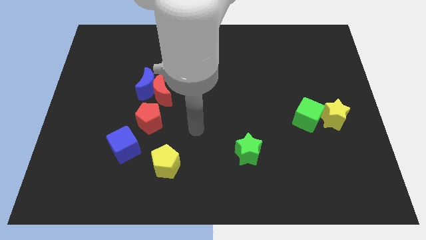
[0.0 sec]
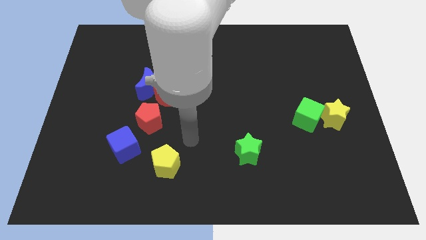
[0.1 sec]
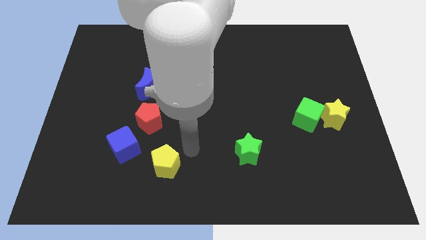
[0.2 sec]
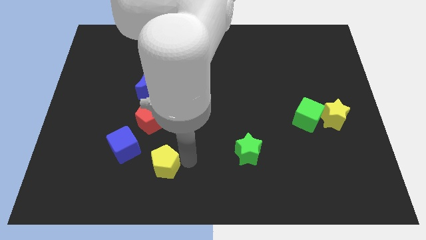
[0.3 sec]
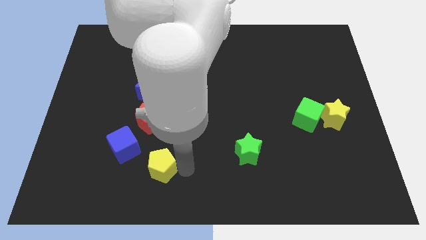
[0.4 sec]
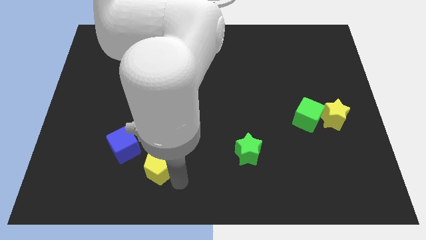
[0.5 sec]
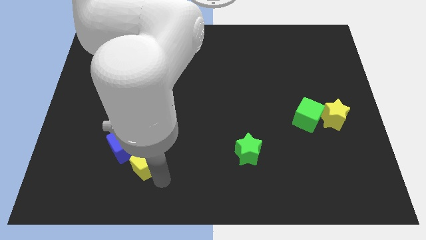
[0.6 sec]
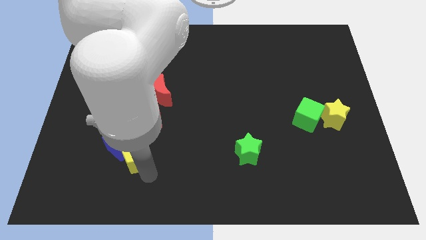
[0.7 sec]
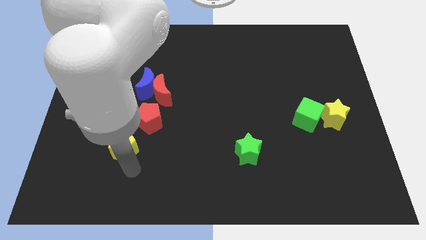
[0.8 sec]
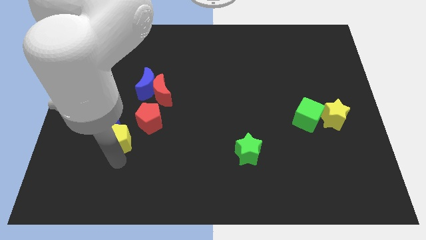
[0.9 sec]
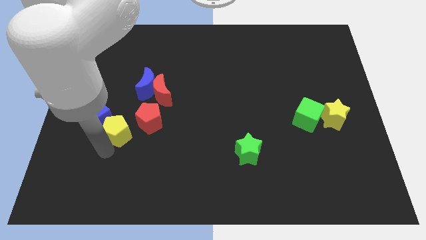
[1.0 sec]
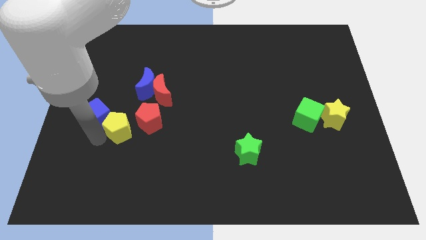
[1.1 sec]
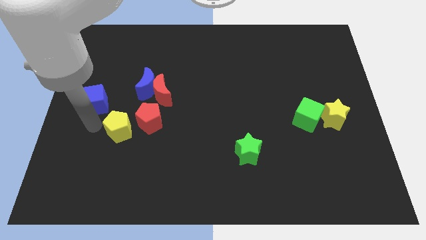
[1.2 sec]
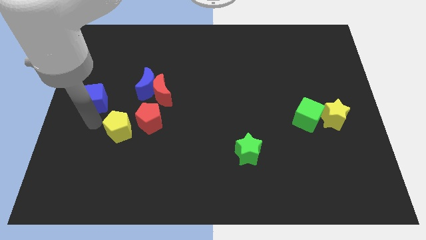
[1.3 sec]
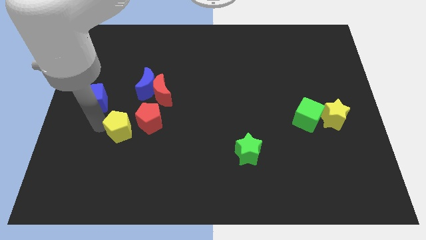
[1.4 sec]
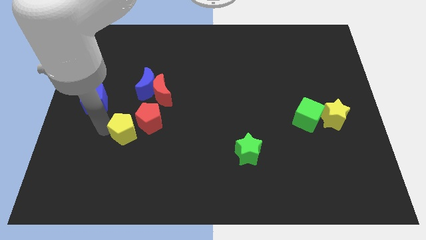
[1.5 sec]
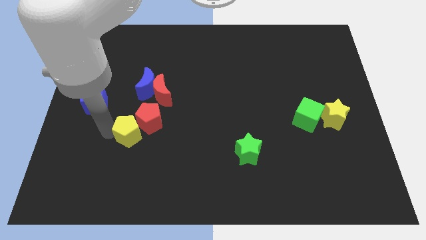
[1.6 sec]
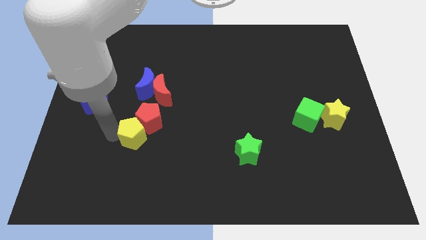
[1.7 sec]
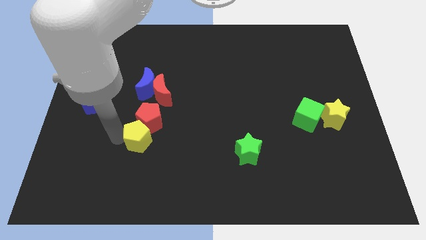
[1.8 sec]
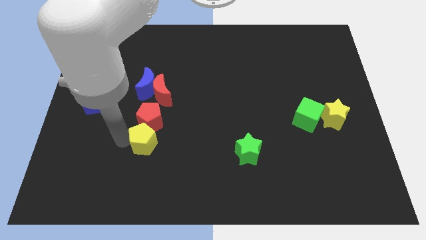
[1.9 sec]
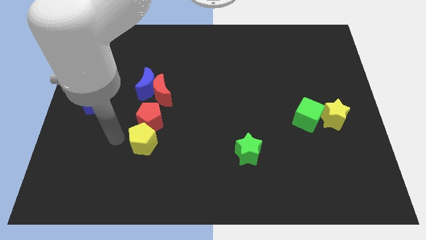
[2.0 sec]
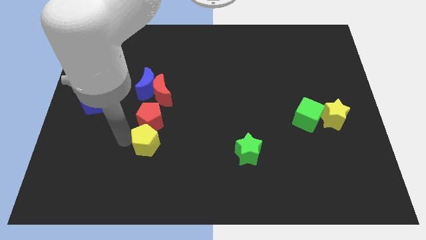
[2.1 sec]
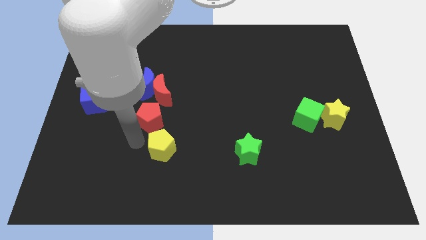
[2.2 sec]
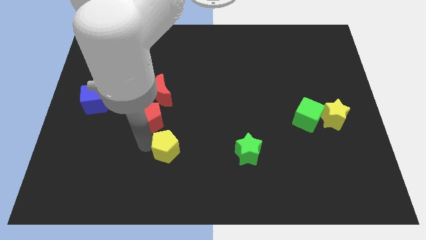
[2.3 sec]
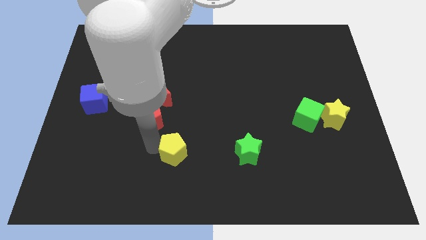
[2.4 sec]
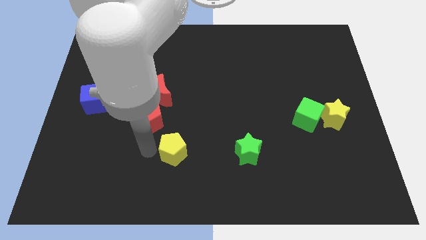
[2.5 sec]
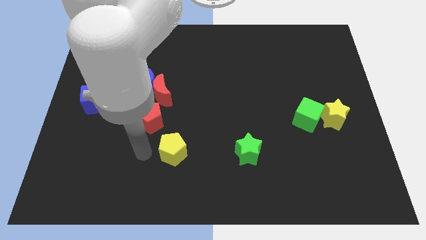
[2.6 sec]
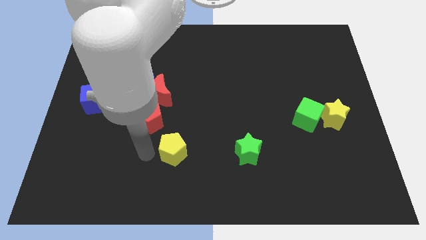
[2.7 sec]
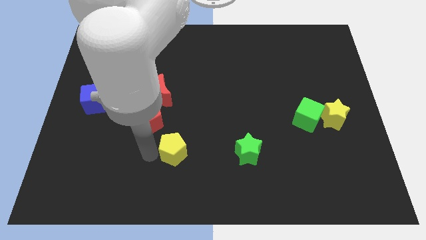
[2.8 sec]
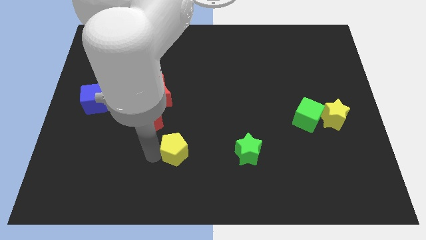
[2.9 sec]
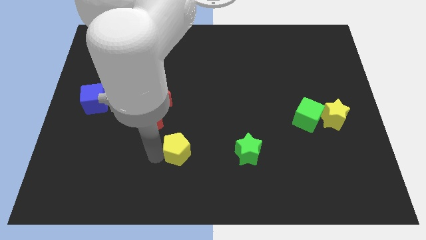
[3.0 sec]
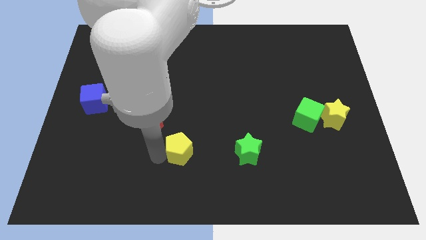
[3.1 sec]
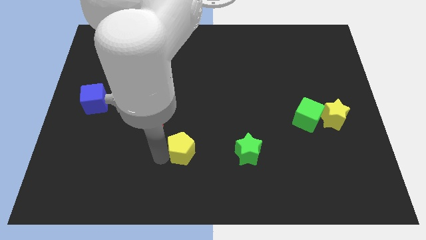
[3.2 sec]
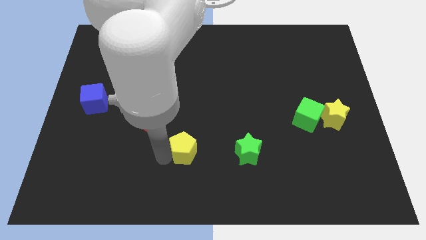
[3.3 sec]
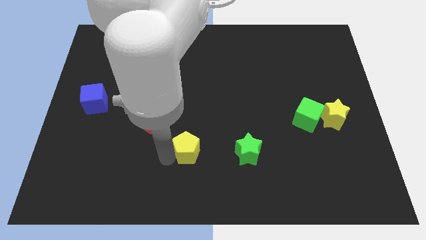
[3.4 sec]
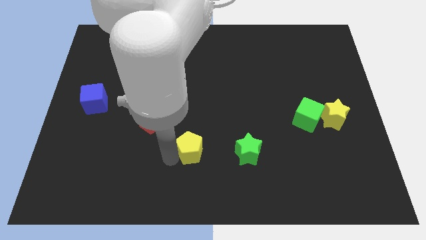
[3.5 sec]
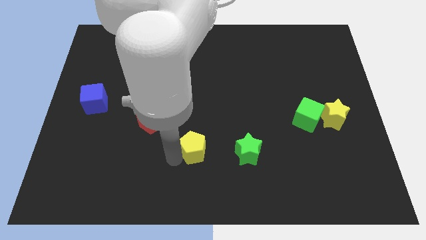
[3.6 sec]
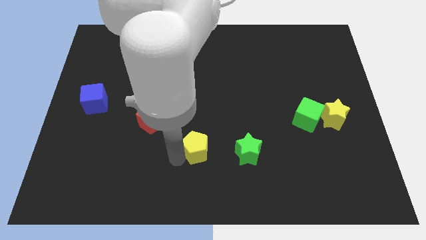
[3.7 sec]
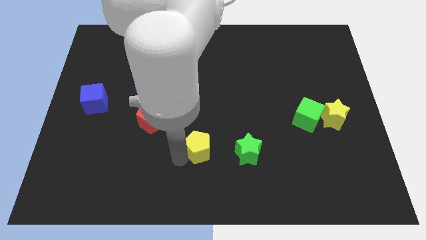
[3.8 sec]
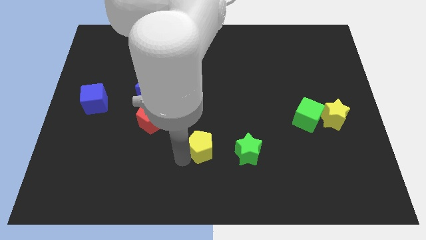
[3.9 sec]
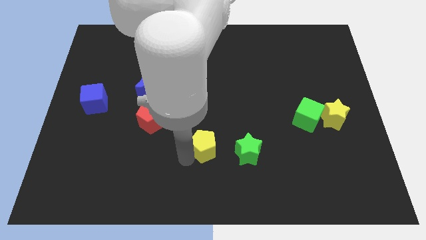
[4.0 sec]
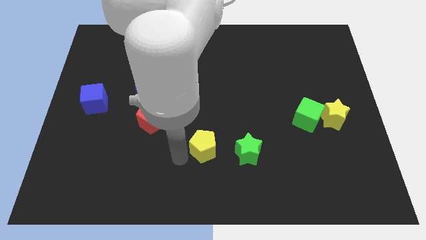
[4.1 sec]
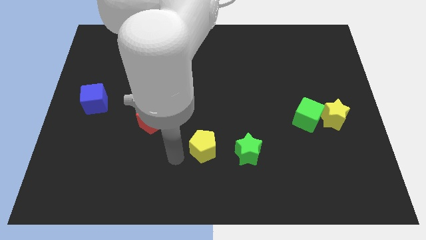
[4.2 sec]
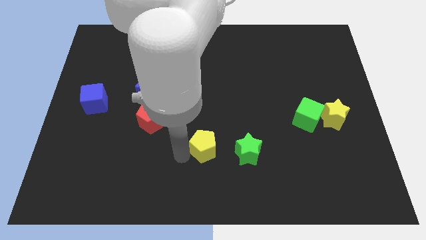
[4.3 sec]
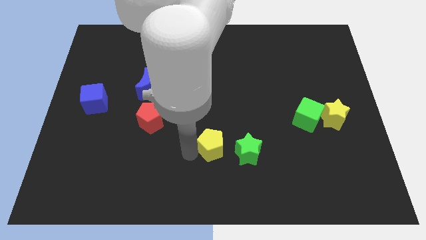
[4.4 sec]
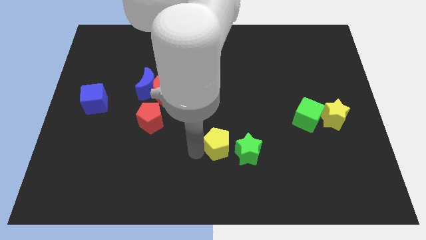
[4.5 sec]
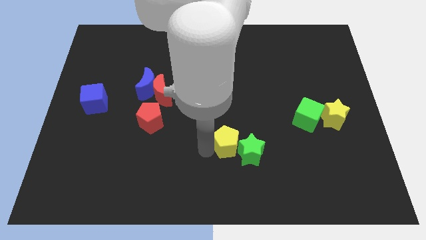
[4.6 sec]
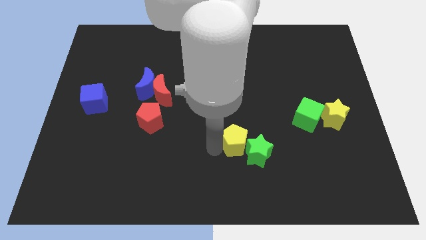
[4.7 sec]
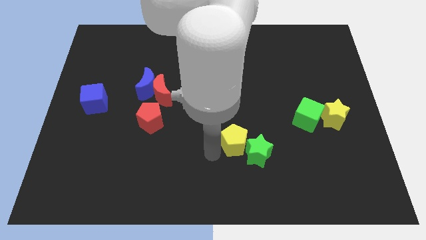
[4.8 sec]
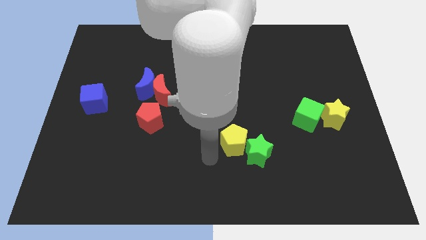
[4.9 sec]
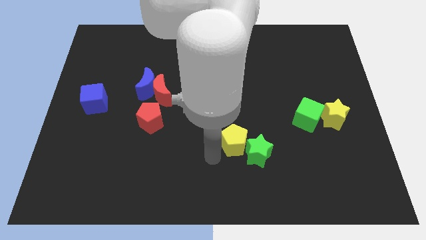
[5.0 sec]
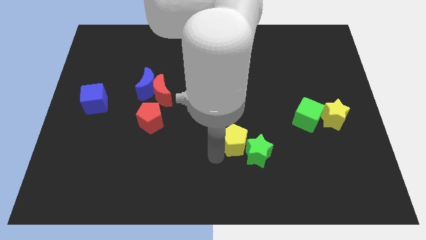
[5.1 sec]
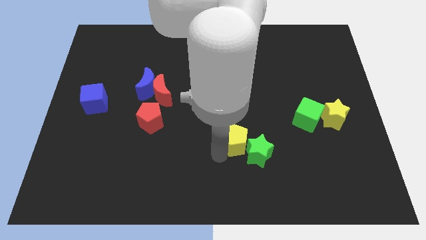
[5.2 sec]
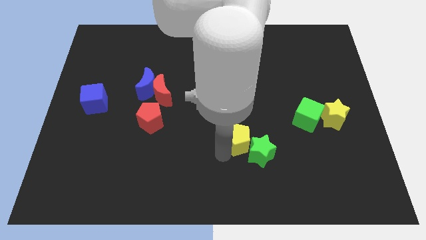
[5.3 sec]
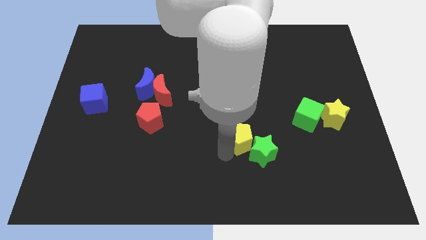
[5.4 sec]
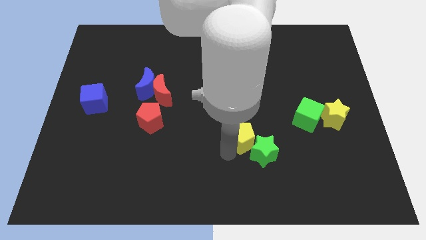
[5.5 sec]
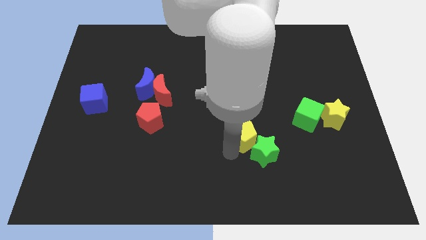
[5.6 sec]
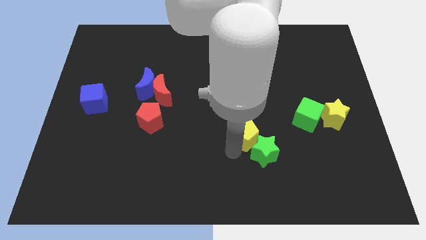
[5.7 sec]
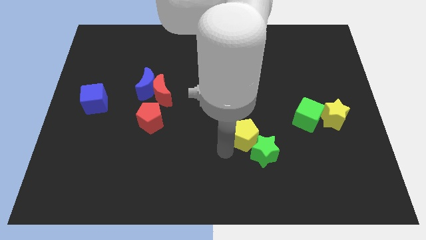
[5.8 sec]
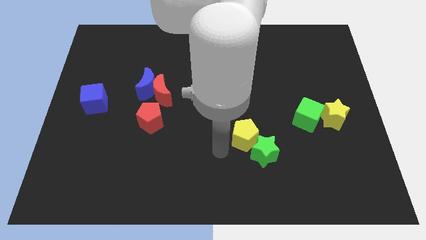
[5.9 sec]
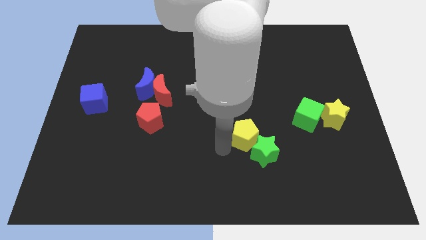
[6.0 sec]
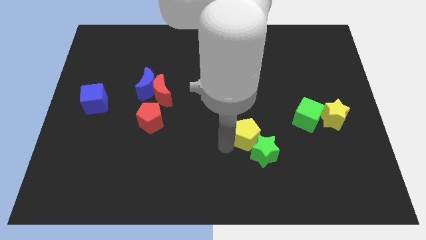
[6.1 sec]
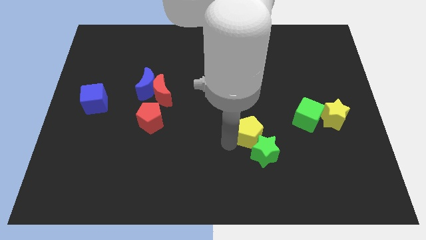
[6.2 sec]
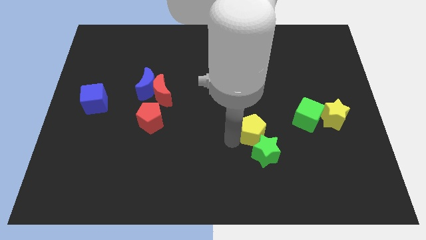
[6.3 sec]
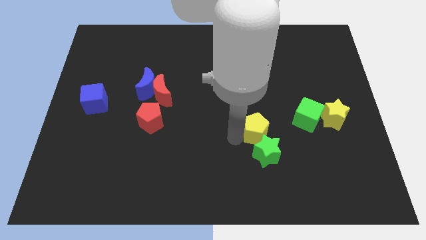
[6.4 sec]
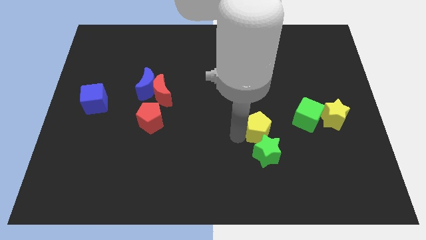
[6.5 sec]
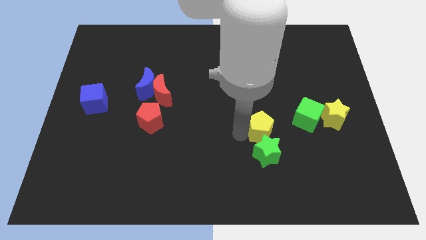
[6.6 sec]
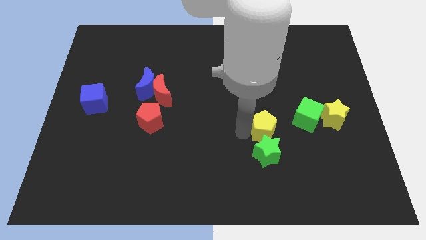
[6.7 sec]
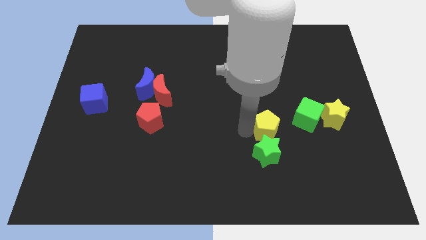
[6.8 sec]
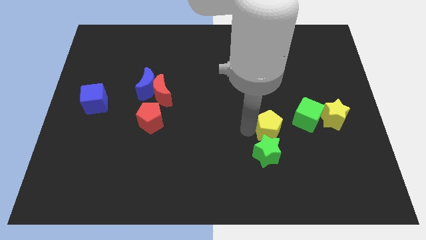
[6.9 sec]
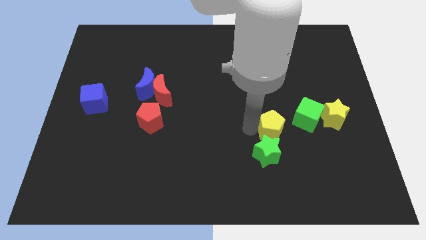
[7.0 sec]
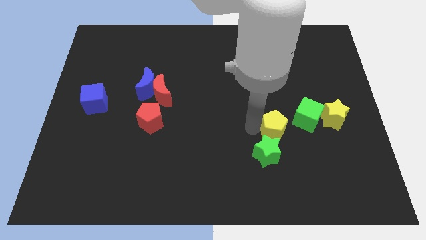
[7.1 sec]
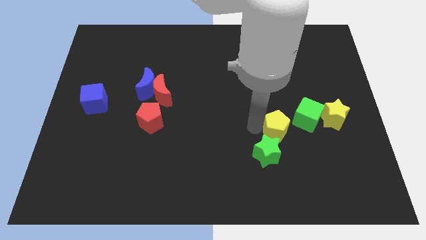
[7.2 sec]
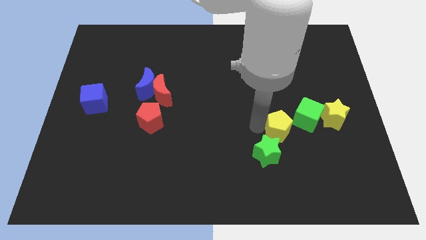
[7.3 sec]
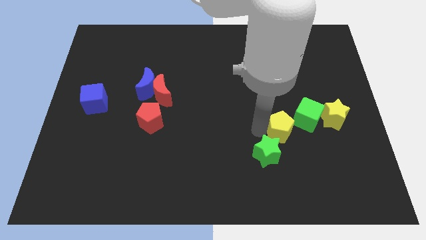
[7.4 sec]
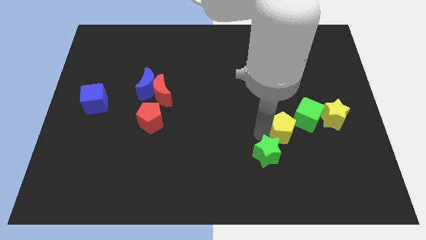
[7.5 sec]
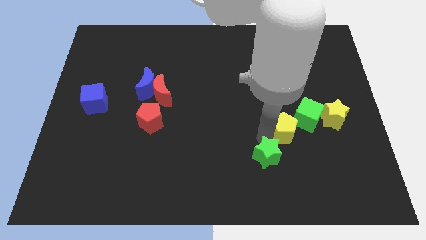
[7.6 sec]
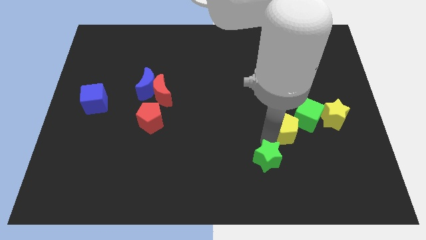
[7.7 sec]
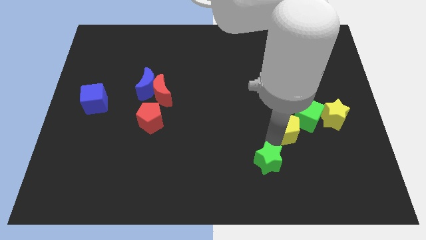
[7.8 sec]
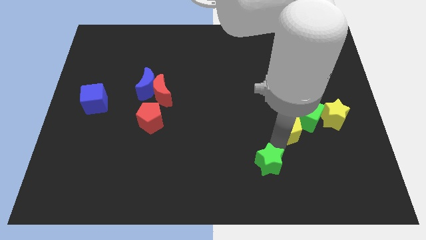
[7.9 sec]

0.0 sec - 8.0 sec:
move the yellow pentagon close to the green cube
